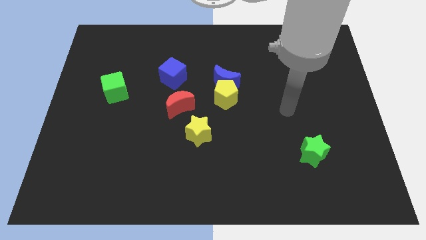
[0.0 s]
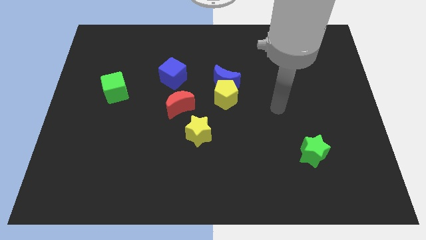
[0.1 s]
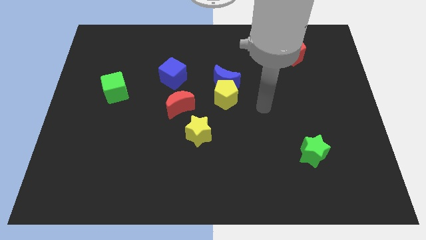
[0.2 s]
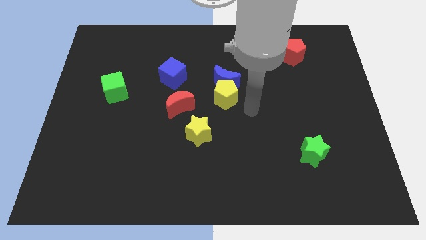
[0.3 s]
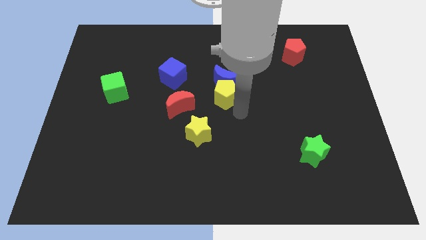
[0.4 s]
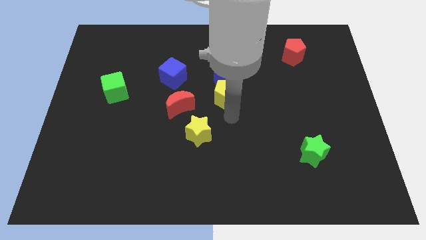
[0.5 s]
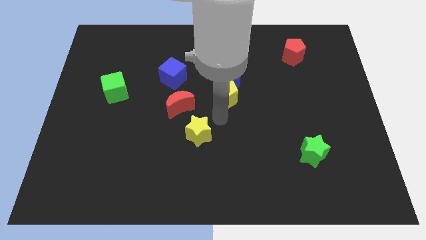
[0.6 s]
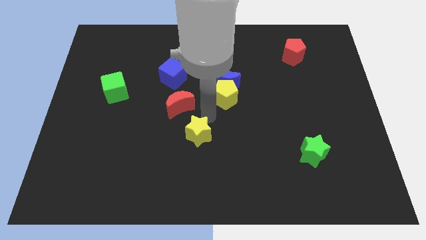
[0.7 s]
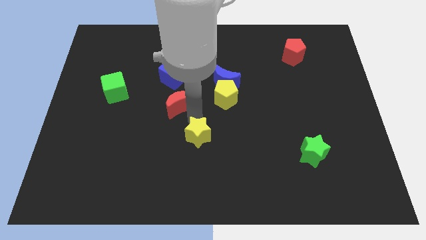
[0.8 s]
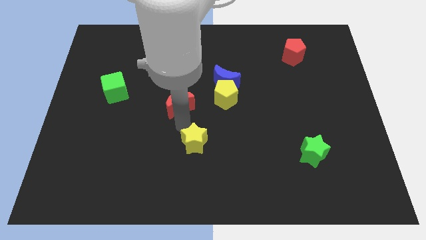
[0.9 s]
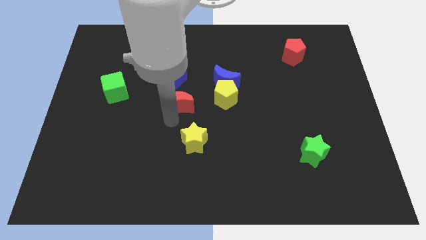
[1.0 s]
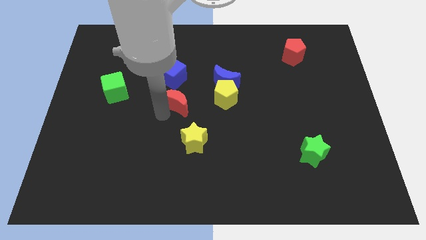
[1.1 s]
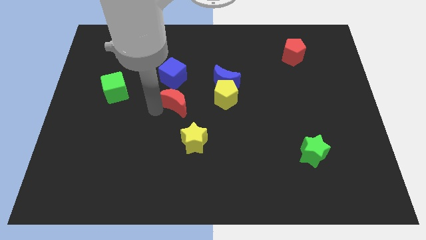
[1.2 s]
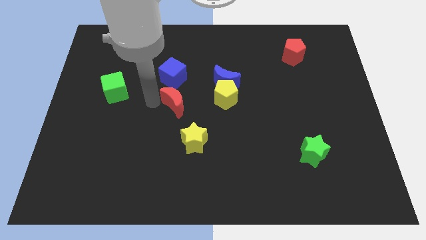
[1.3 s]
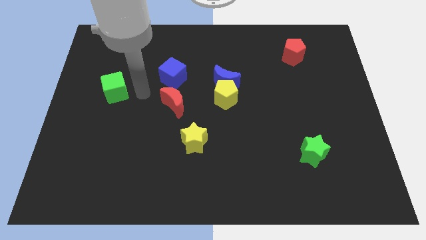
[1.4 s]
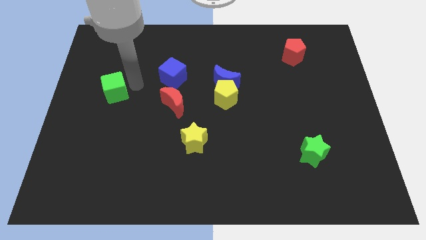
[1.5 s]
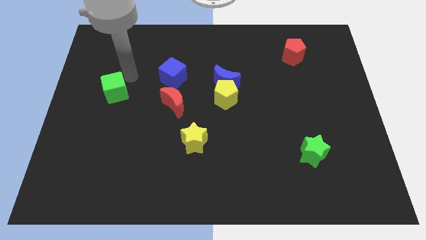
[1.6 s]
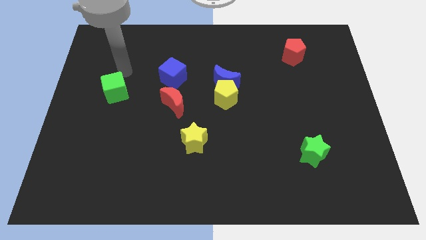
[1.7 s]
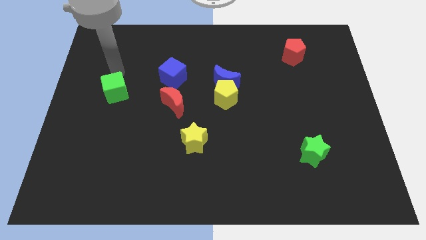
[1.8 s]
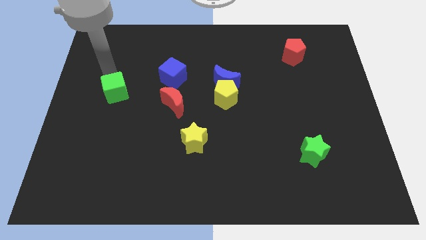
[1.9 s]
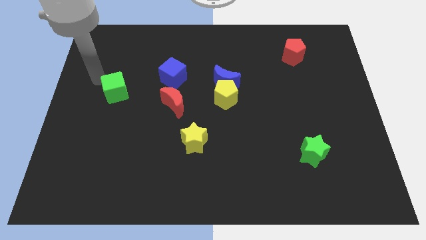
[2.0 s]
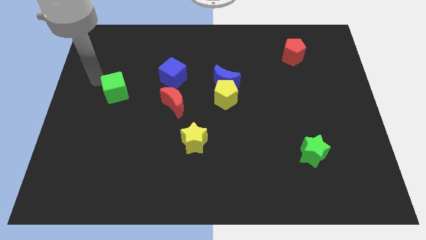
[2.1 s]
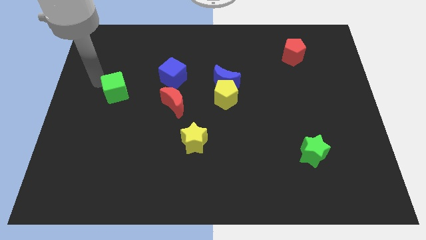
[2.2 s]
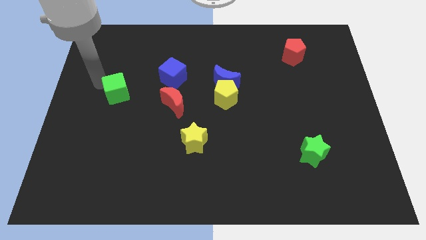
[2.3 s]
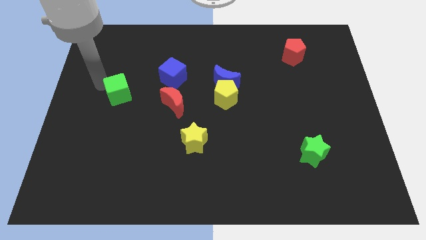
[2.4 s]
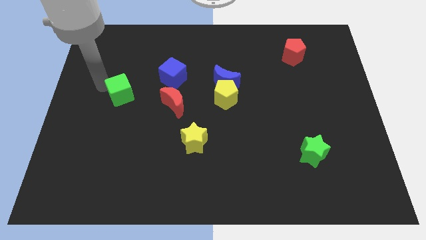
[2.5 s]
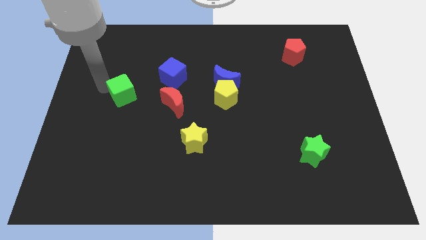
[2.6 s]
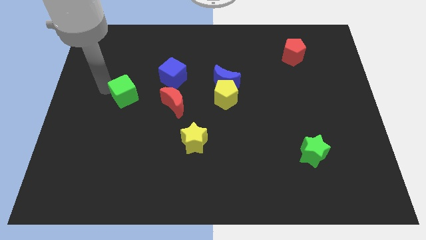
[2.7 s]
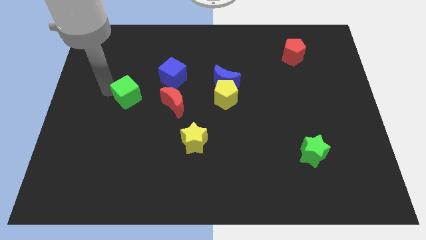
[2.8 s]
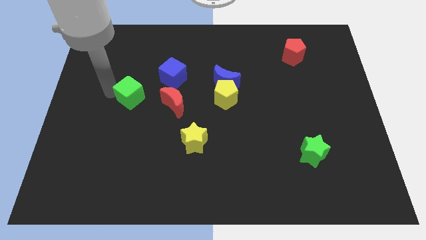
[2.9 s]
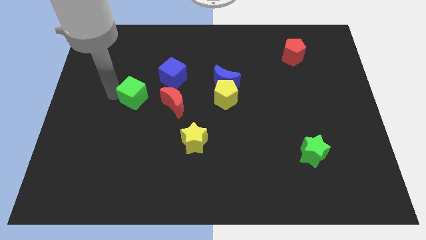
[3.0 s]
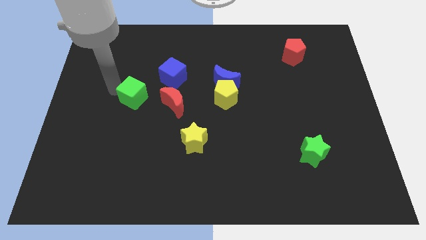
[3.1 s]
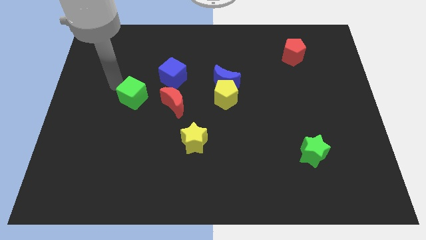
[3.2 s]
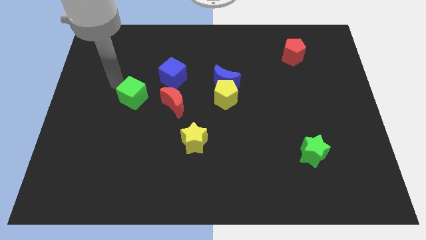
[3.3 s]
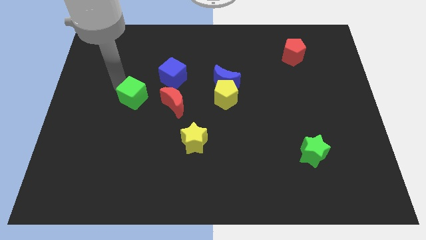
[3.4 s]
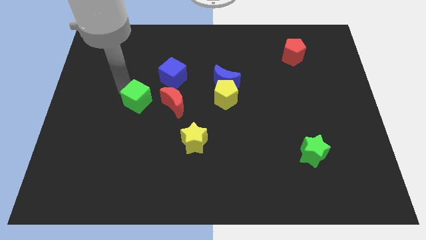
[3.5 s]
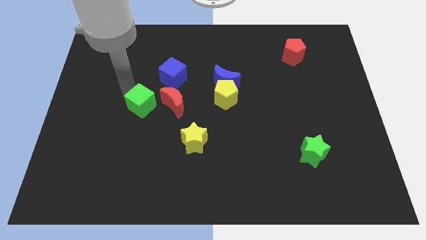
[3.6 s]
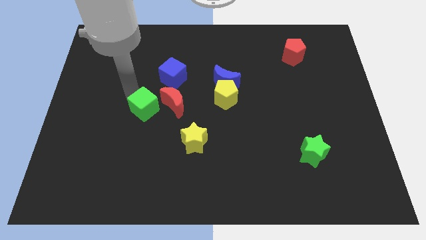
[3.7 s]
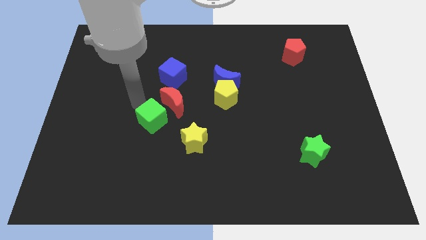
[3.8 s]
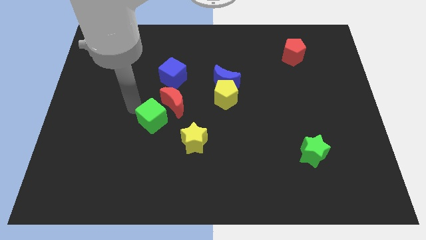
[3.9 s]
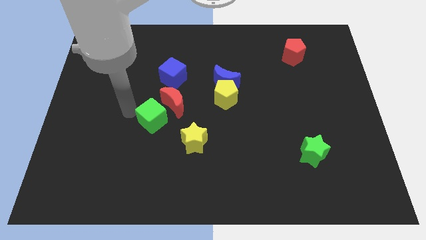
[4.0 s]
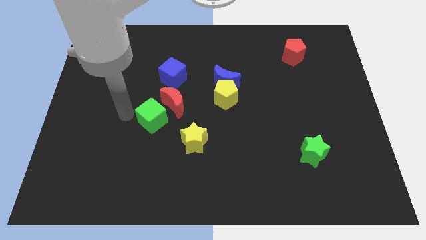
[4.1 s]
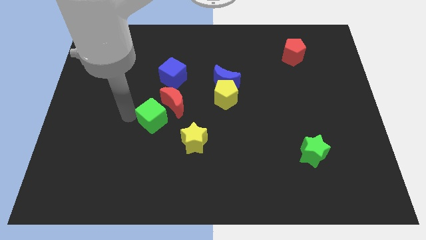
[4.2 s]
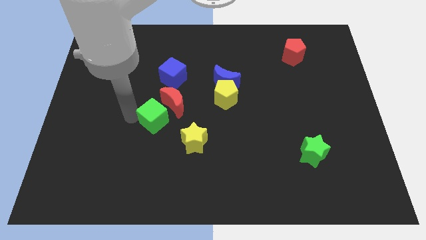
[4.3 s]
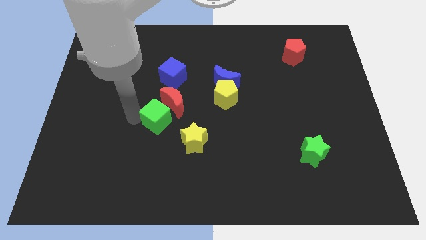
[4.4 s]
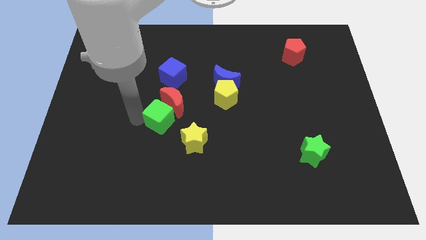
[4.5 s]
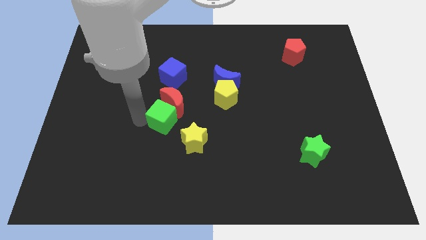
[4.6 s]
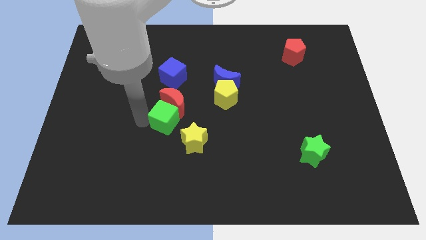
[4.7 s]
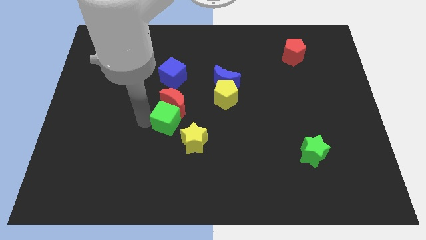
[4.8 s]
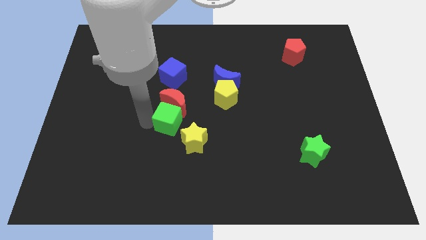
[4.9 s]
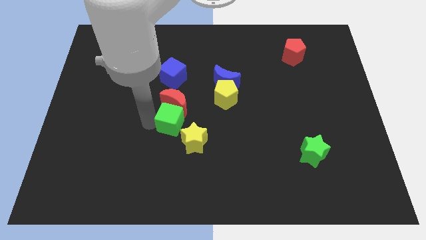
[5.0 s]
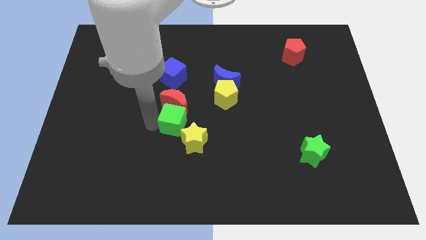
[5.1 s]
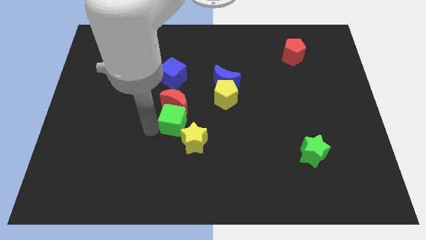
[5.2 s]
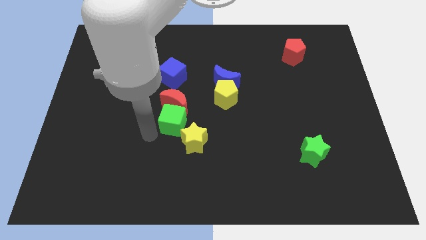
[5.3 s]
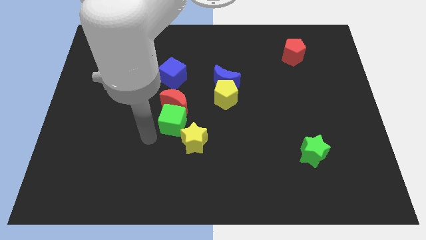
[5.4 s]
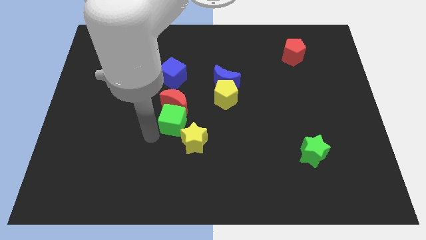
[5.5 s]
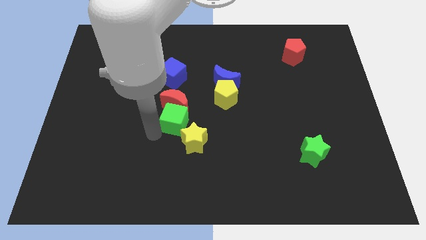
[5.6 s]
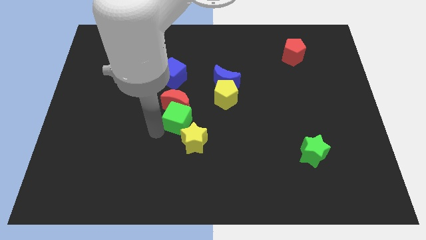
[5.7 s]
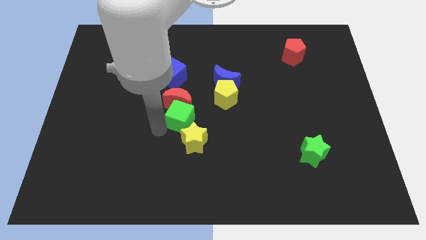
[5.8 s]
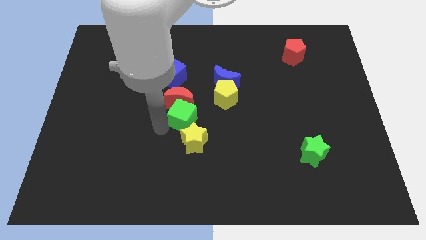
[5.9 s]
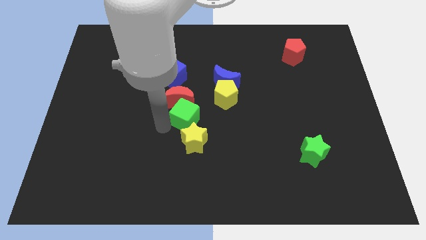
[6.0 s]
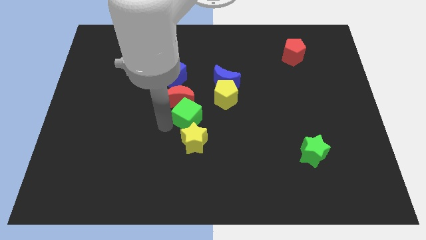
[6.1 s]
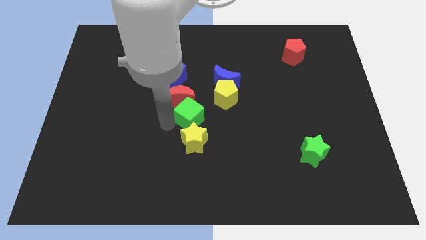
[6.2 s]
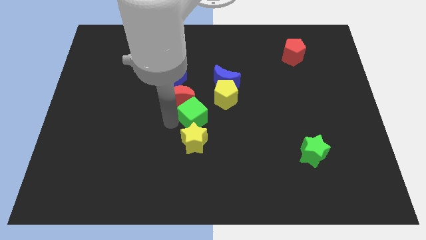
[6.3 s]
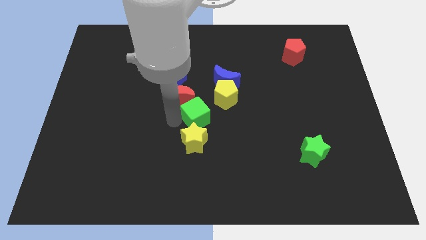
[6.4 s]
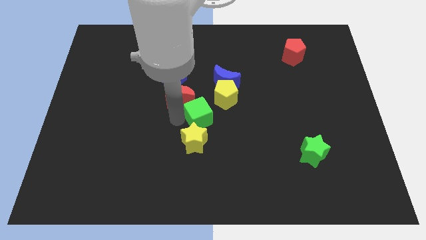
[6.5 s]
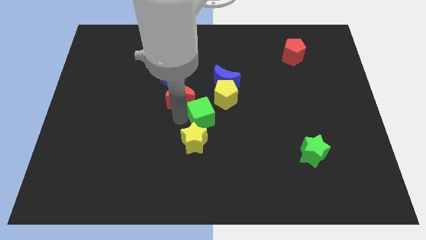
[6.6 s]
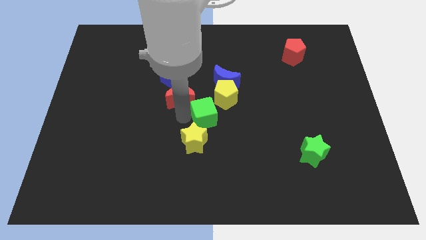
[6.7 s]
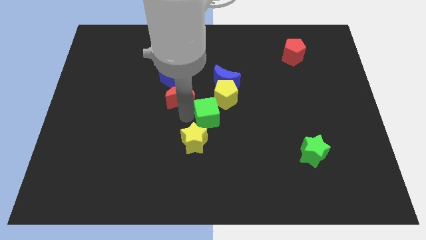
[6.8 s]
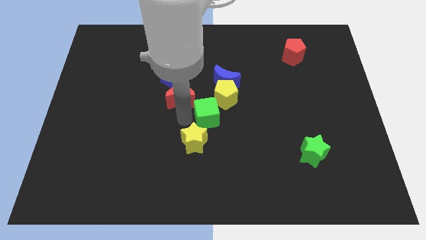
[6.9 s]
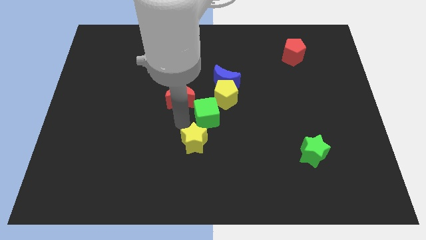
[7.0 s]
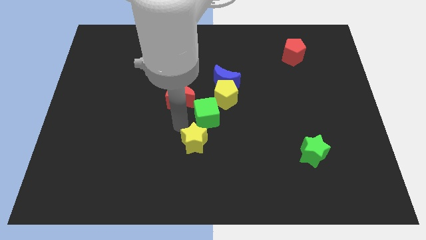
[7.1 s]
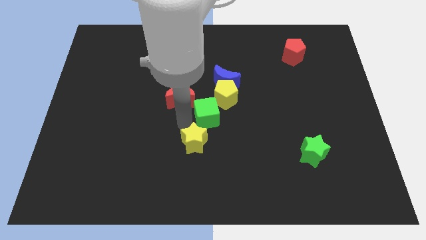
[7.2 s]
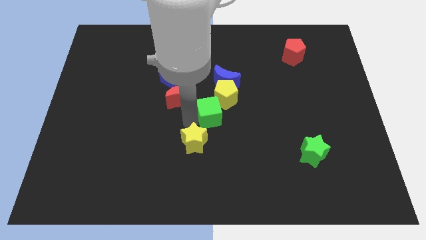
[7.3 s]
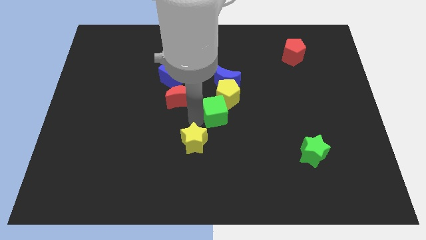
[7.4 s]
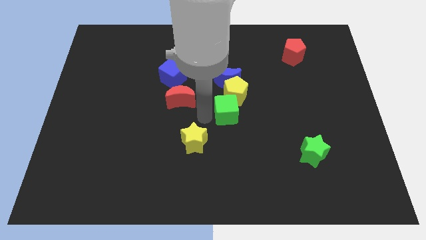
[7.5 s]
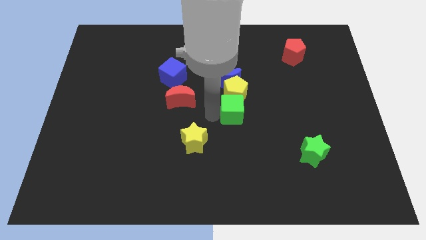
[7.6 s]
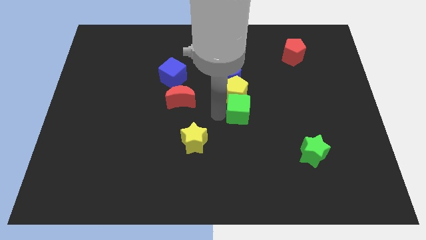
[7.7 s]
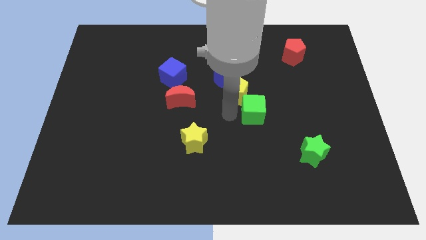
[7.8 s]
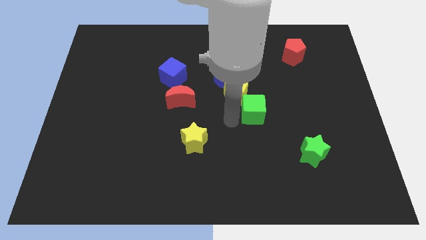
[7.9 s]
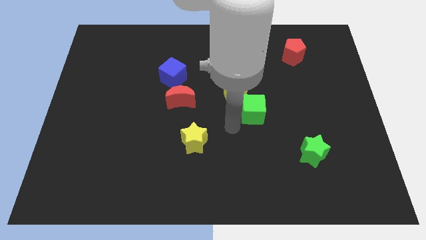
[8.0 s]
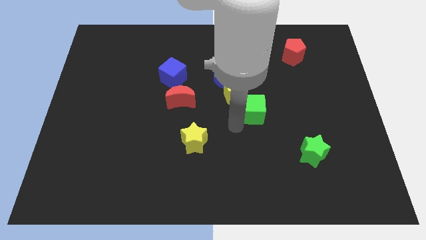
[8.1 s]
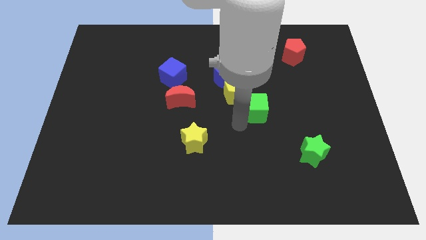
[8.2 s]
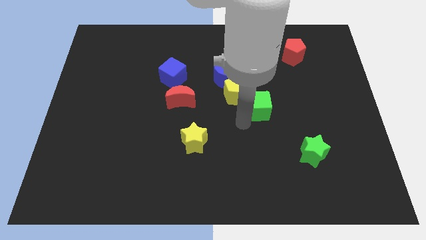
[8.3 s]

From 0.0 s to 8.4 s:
move the green cube to the right of the yellow pentagon
